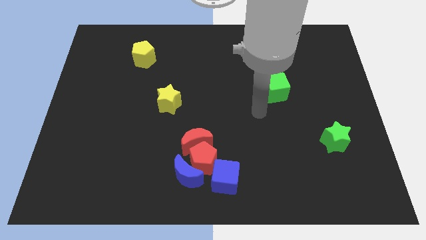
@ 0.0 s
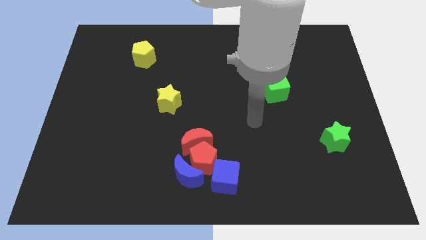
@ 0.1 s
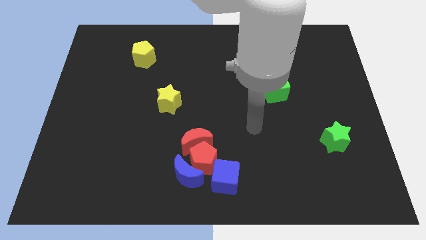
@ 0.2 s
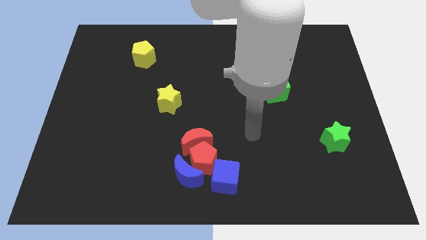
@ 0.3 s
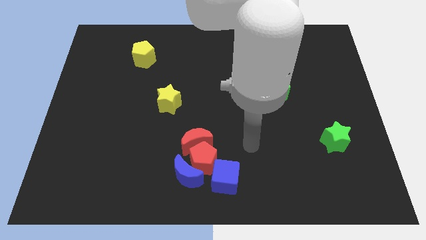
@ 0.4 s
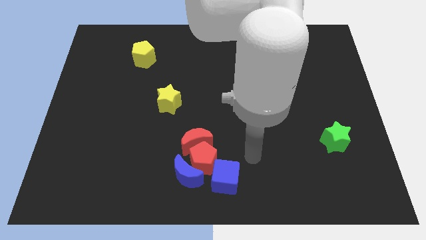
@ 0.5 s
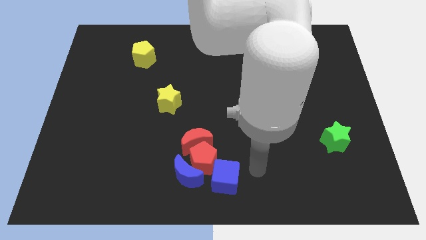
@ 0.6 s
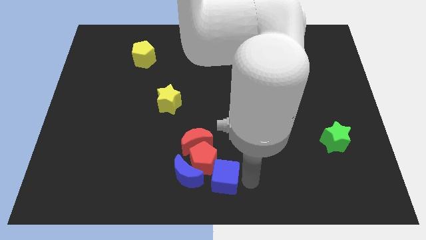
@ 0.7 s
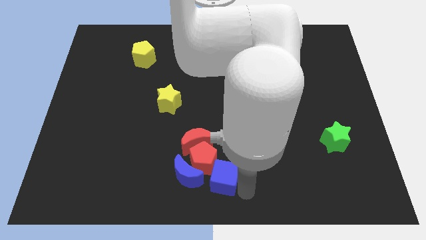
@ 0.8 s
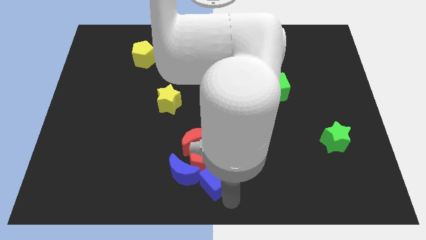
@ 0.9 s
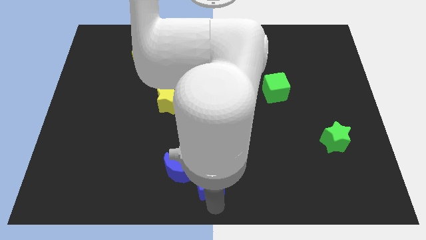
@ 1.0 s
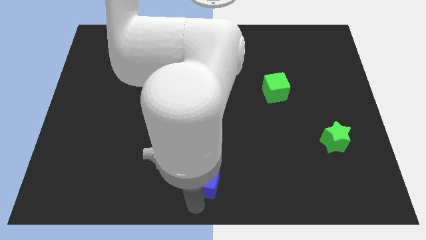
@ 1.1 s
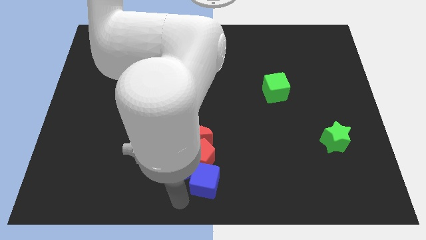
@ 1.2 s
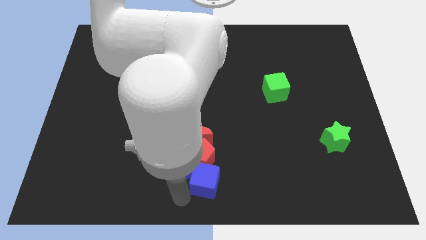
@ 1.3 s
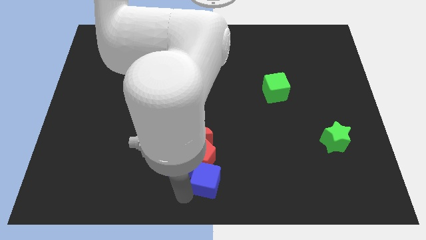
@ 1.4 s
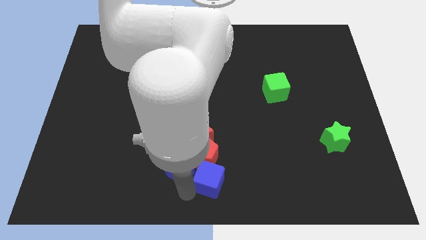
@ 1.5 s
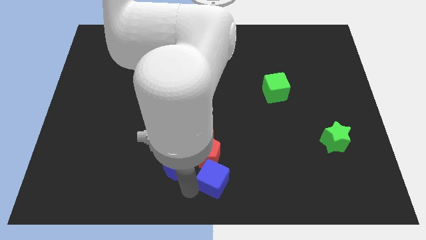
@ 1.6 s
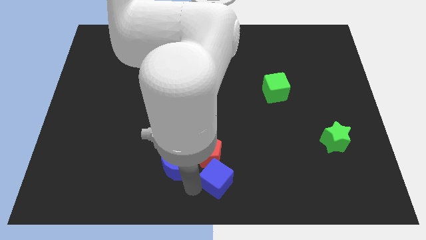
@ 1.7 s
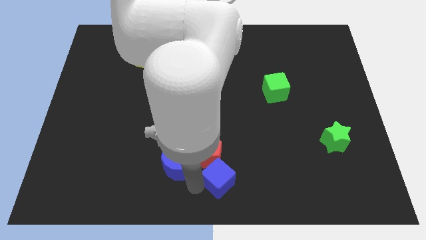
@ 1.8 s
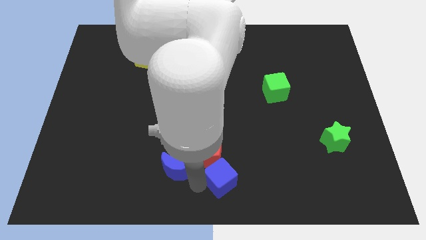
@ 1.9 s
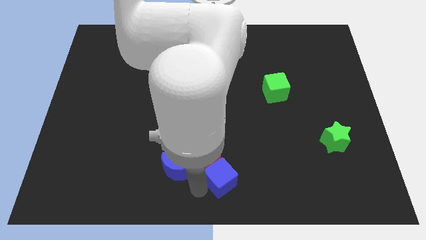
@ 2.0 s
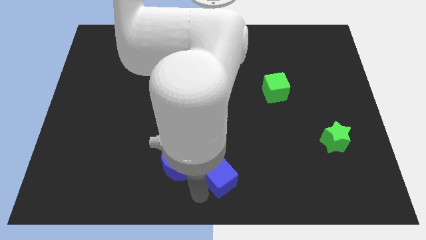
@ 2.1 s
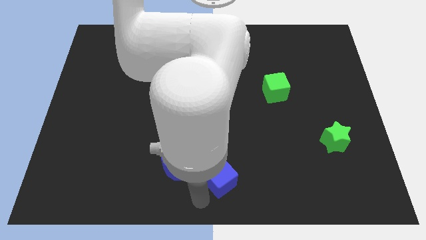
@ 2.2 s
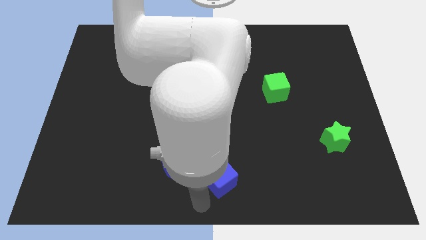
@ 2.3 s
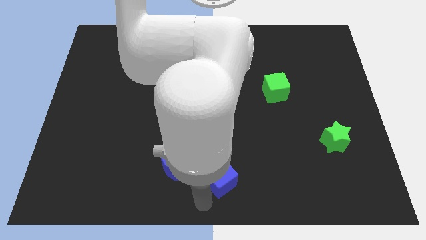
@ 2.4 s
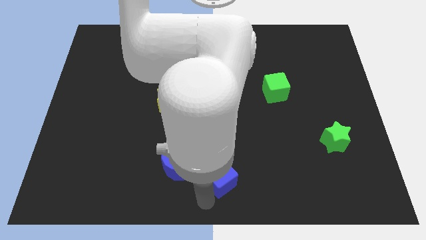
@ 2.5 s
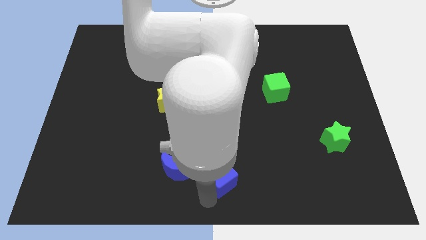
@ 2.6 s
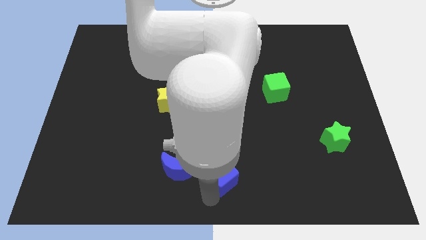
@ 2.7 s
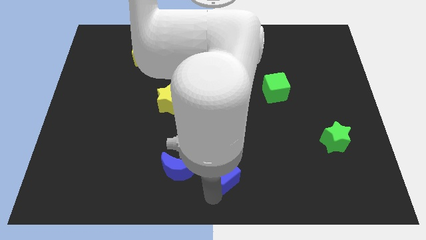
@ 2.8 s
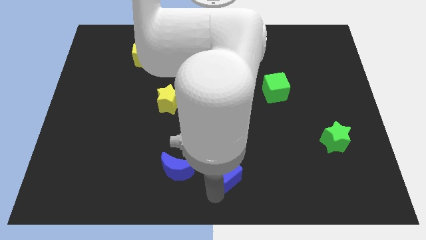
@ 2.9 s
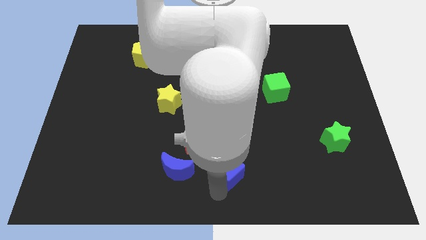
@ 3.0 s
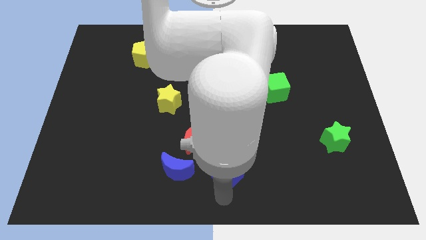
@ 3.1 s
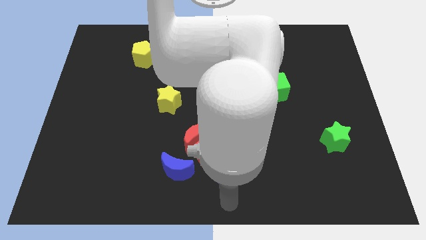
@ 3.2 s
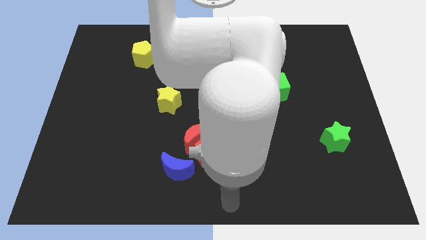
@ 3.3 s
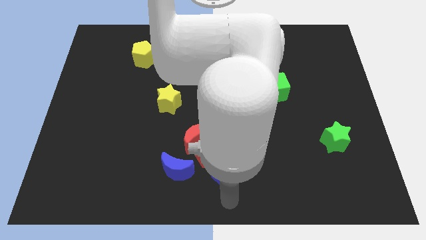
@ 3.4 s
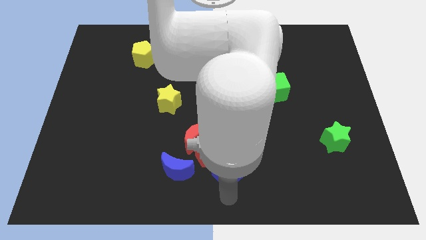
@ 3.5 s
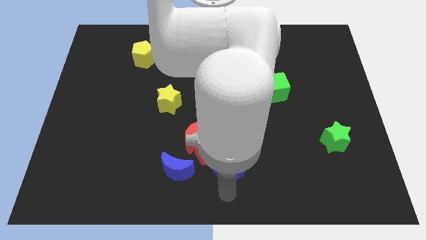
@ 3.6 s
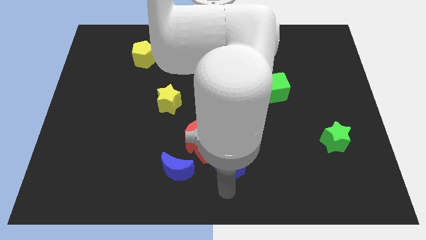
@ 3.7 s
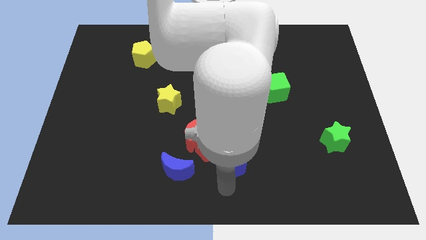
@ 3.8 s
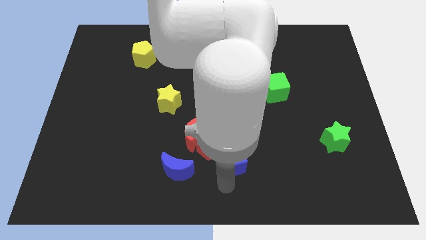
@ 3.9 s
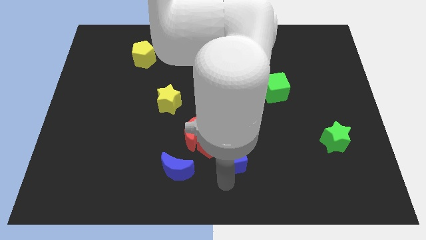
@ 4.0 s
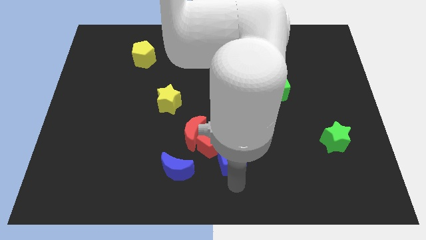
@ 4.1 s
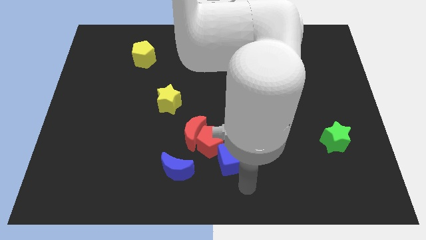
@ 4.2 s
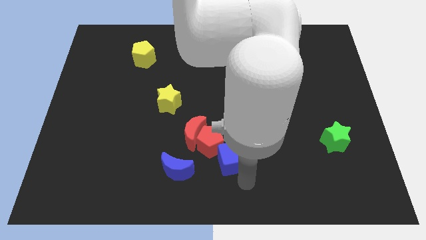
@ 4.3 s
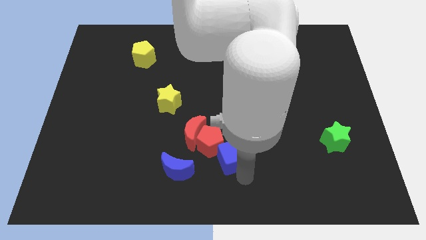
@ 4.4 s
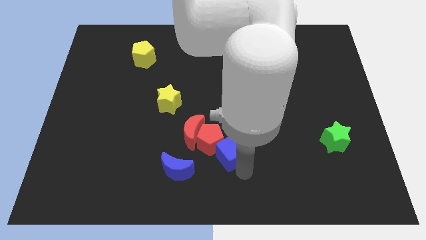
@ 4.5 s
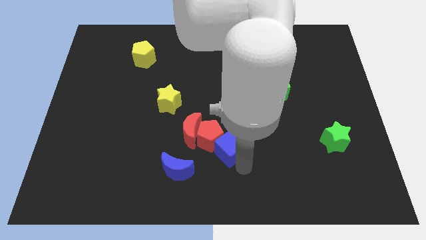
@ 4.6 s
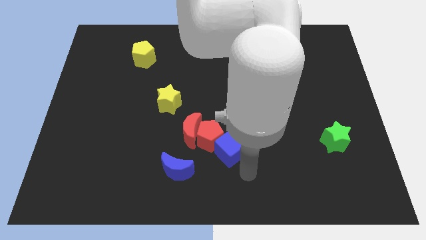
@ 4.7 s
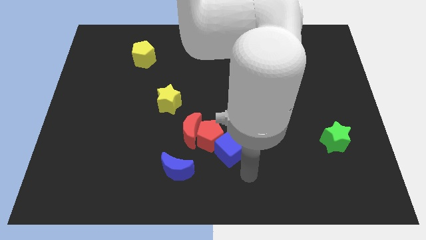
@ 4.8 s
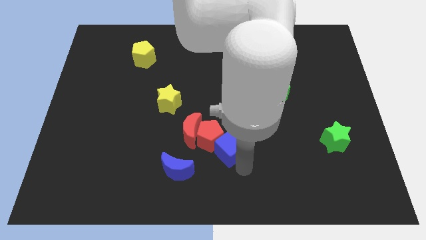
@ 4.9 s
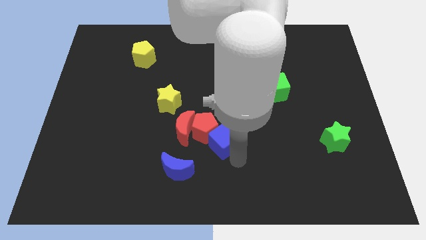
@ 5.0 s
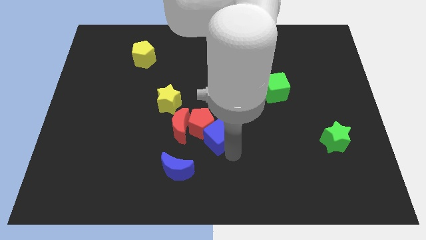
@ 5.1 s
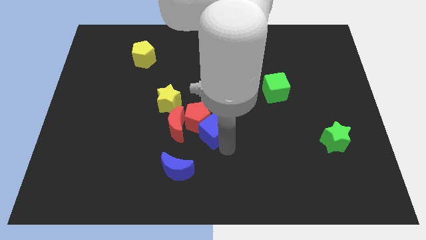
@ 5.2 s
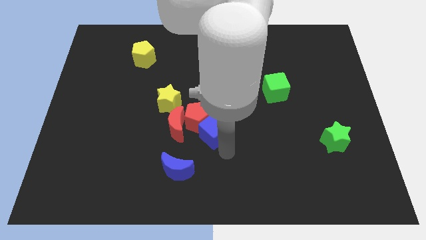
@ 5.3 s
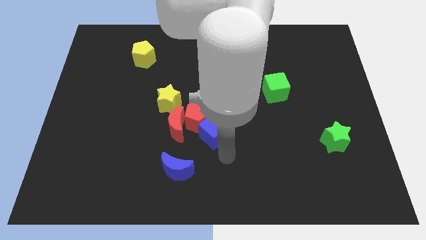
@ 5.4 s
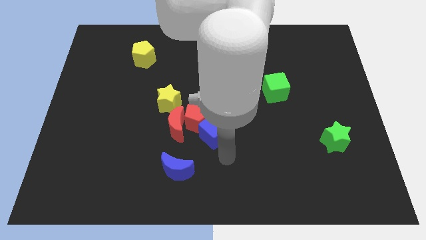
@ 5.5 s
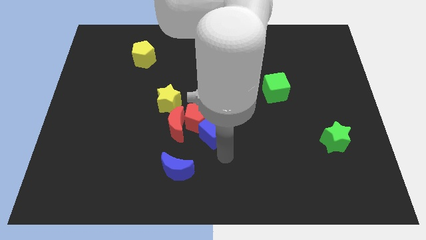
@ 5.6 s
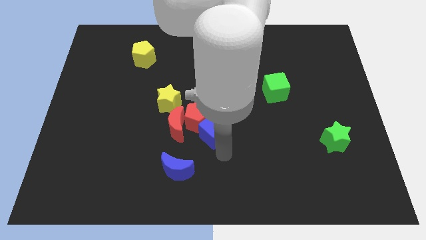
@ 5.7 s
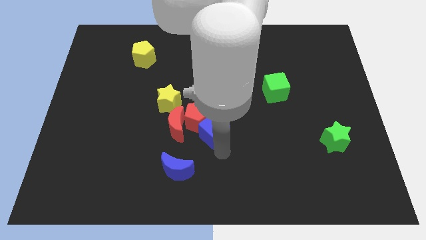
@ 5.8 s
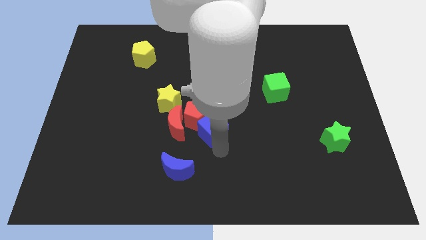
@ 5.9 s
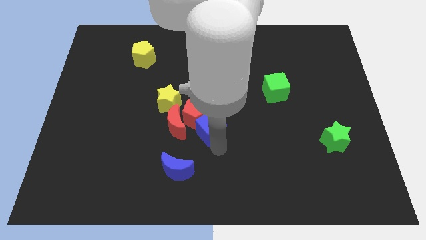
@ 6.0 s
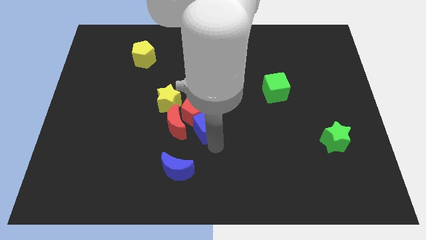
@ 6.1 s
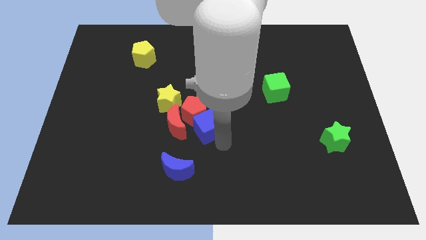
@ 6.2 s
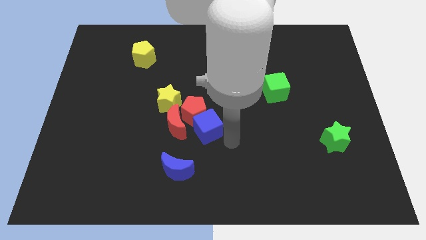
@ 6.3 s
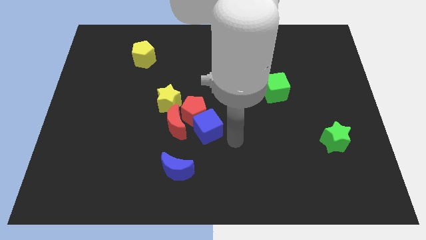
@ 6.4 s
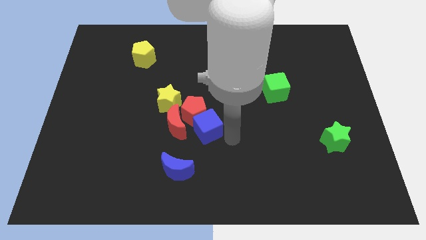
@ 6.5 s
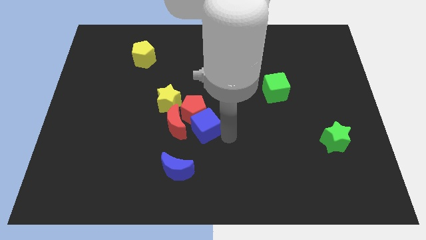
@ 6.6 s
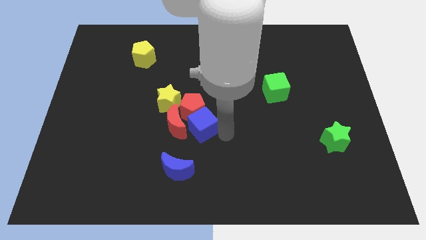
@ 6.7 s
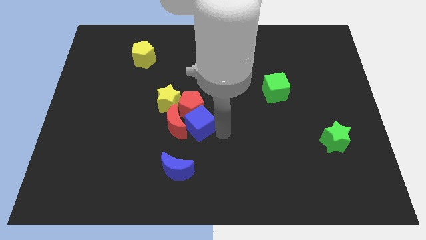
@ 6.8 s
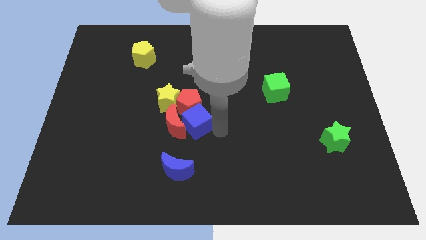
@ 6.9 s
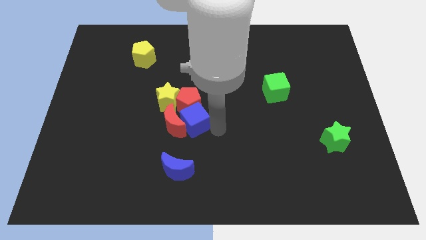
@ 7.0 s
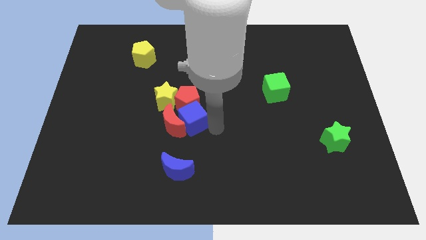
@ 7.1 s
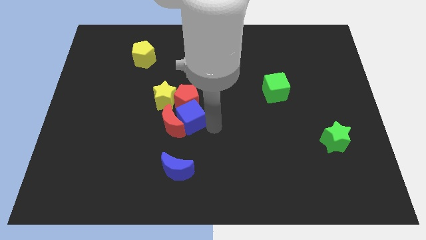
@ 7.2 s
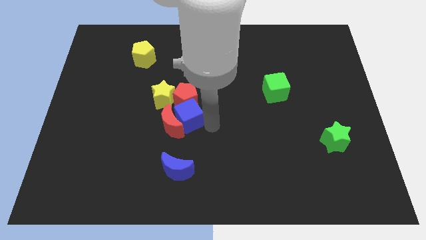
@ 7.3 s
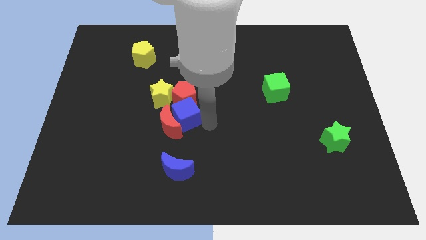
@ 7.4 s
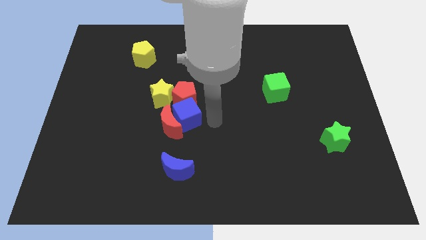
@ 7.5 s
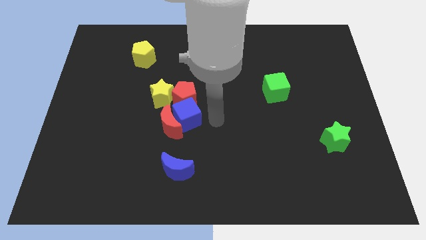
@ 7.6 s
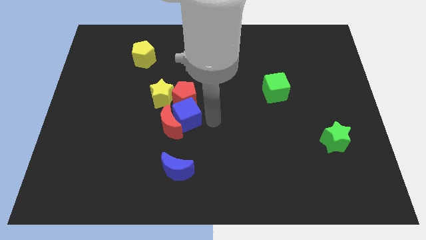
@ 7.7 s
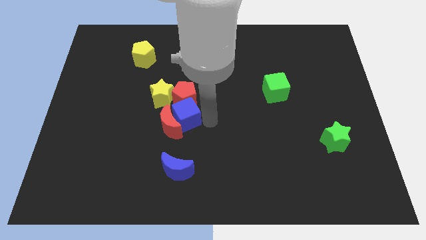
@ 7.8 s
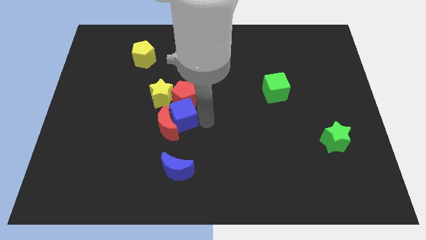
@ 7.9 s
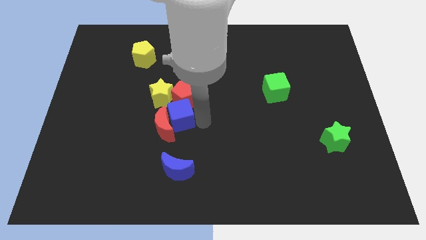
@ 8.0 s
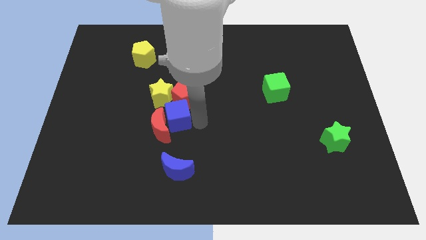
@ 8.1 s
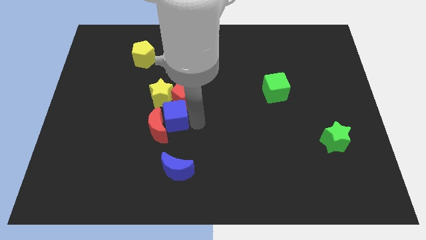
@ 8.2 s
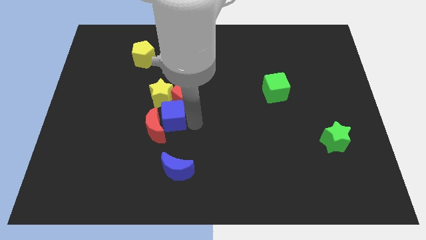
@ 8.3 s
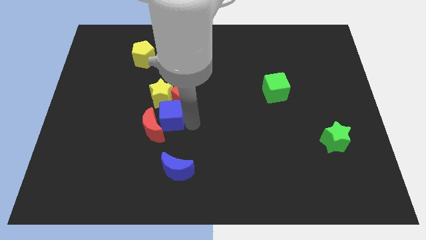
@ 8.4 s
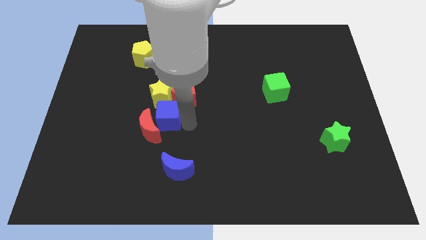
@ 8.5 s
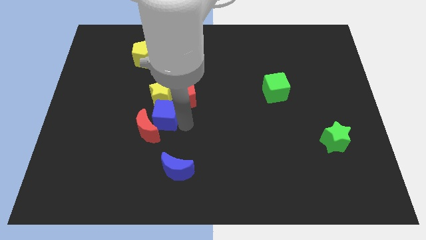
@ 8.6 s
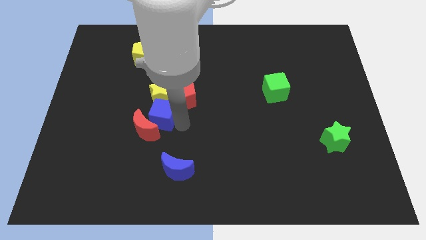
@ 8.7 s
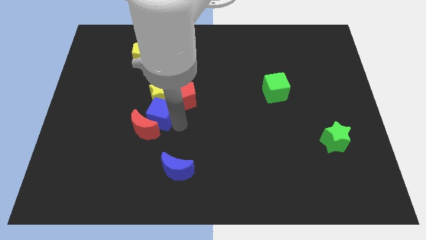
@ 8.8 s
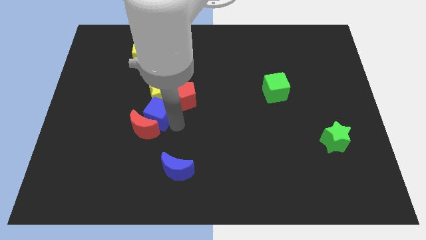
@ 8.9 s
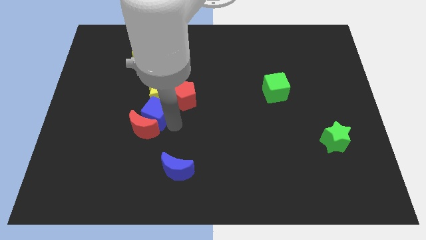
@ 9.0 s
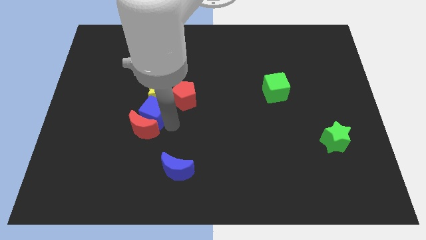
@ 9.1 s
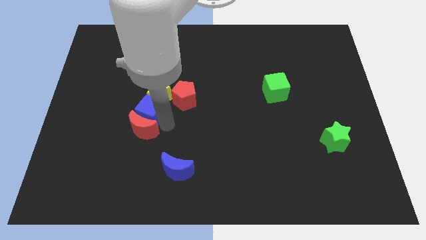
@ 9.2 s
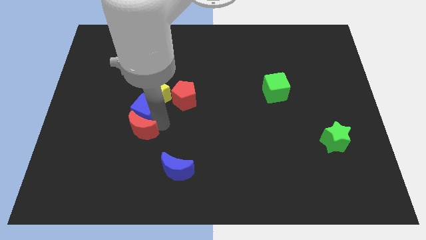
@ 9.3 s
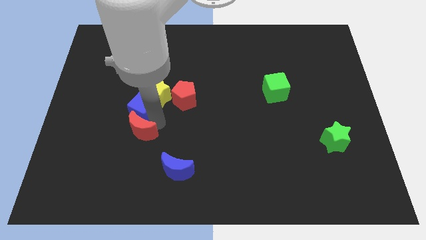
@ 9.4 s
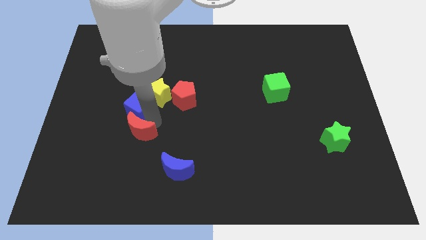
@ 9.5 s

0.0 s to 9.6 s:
slide the blue cube left of the yellow star
